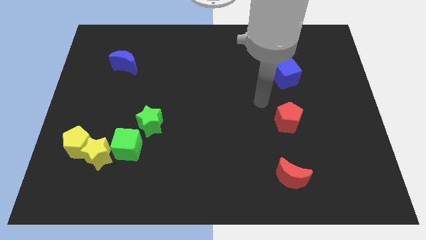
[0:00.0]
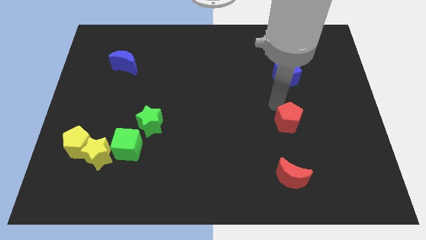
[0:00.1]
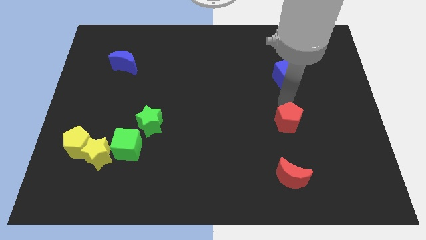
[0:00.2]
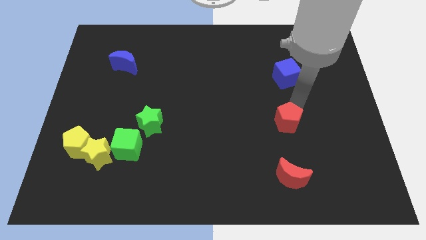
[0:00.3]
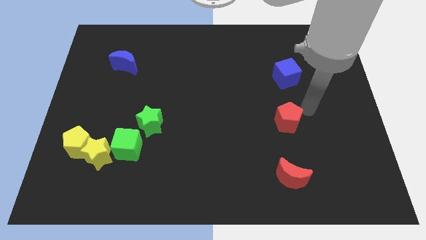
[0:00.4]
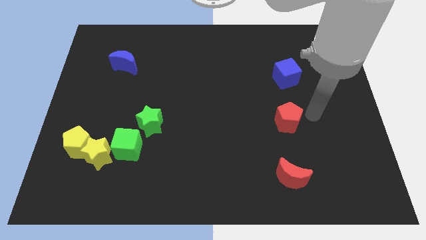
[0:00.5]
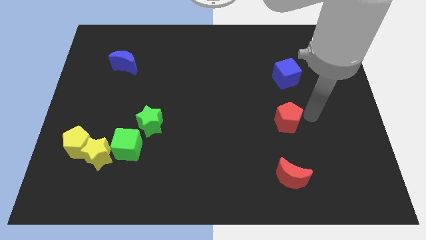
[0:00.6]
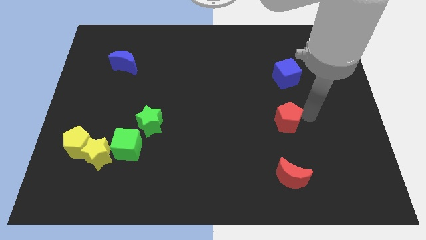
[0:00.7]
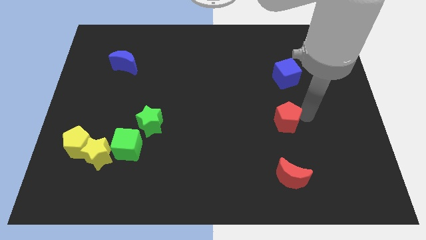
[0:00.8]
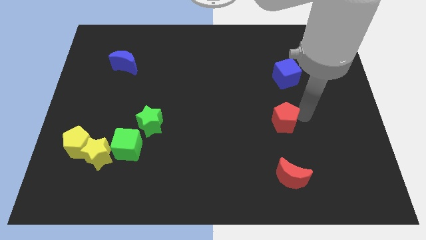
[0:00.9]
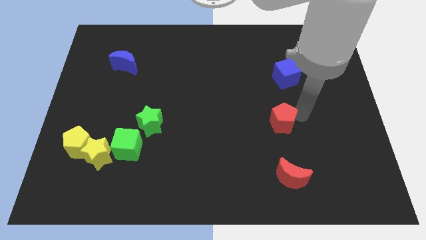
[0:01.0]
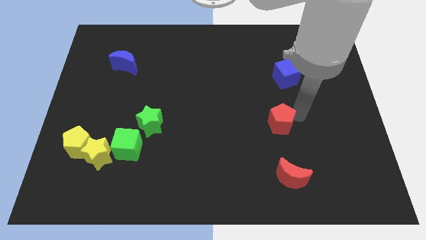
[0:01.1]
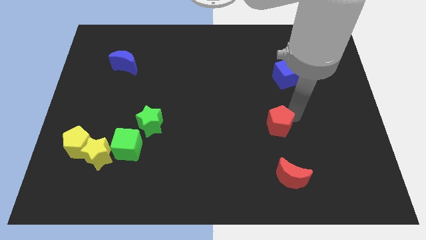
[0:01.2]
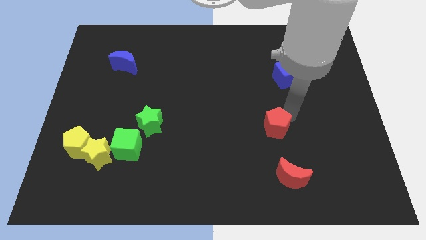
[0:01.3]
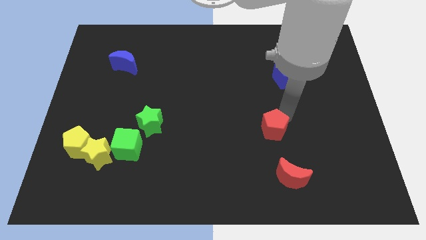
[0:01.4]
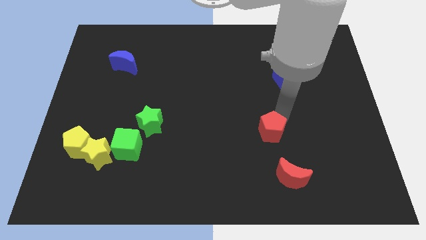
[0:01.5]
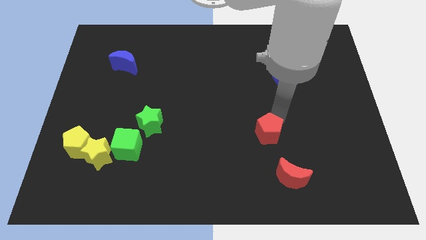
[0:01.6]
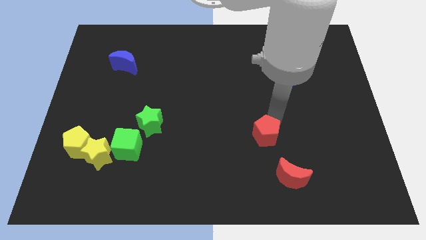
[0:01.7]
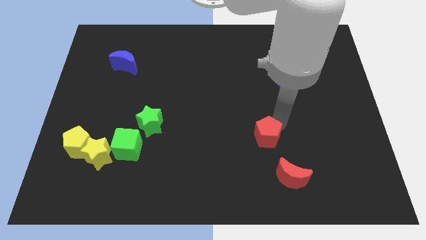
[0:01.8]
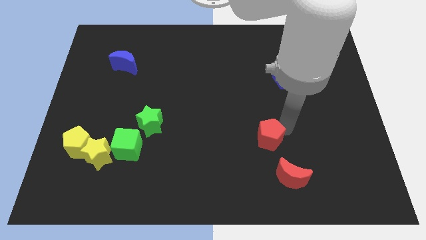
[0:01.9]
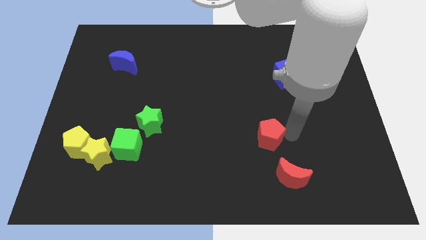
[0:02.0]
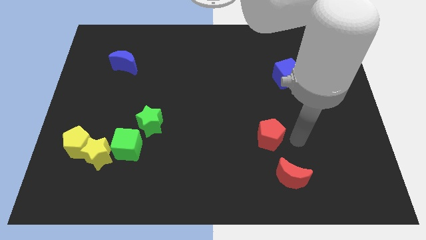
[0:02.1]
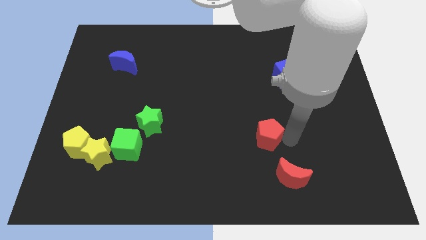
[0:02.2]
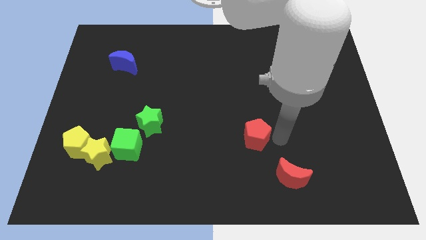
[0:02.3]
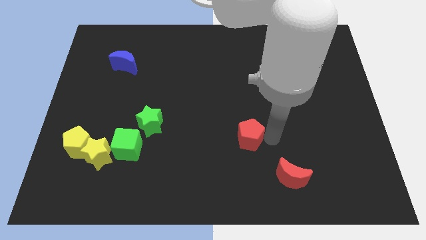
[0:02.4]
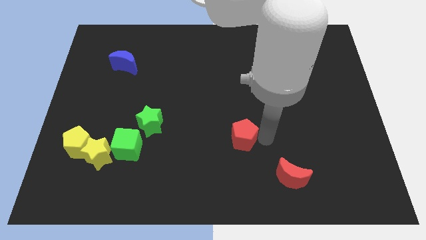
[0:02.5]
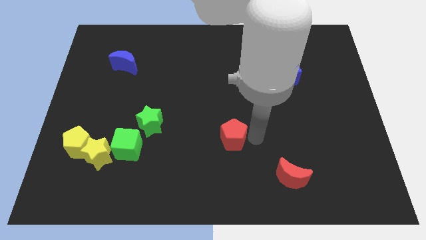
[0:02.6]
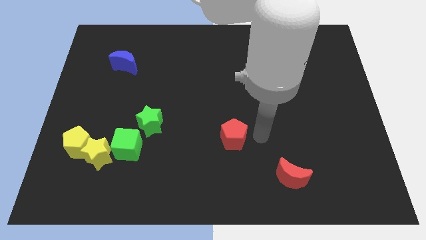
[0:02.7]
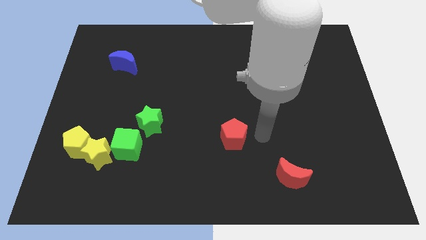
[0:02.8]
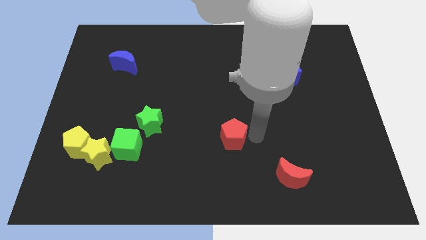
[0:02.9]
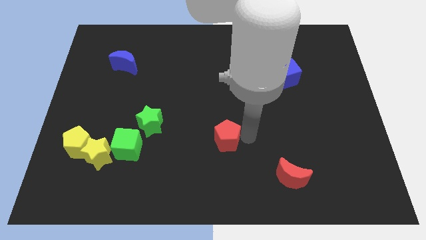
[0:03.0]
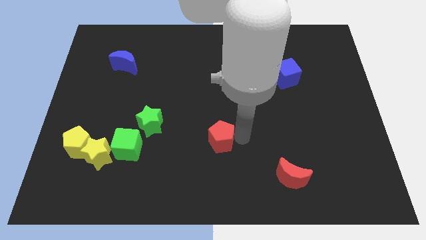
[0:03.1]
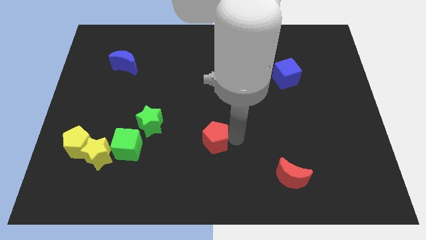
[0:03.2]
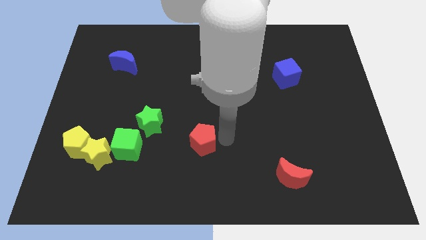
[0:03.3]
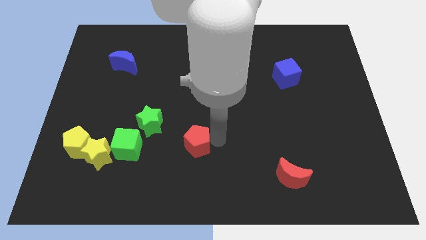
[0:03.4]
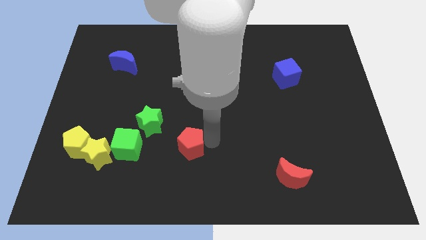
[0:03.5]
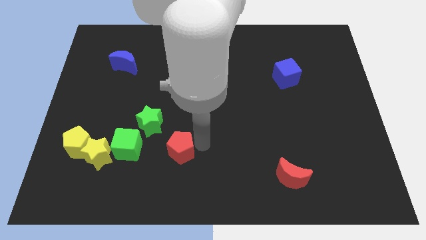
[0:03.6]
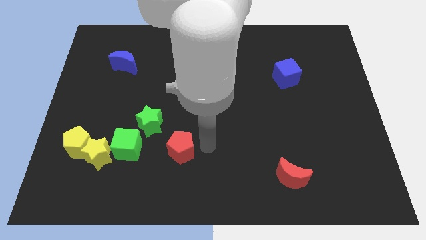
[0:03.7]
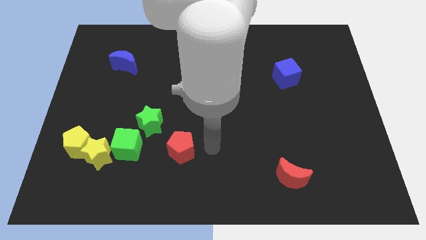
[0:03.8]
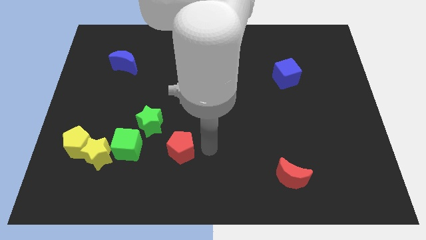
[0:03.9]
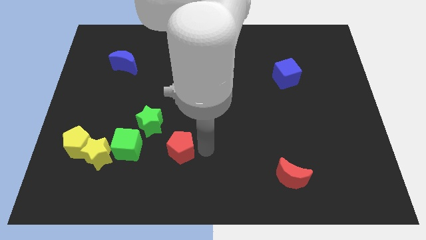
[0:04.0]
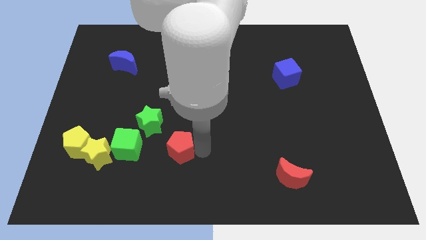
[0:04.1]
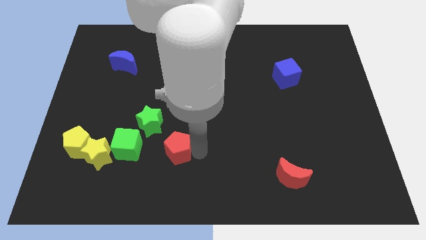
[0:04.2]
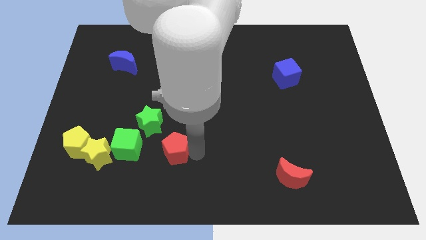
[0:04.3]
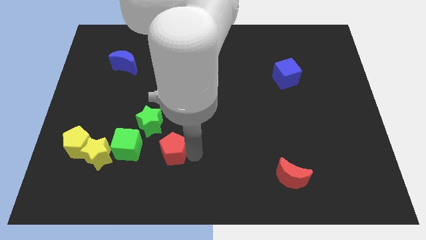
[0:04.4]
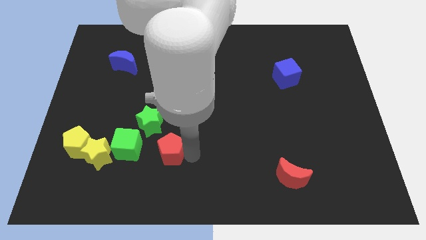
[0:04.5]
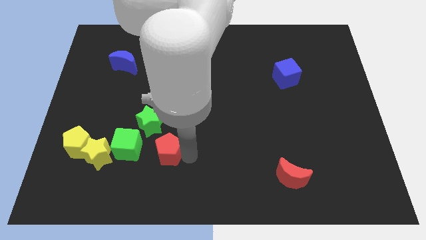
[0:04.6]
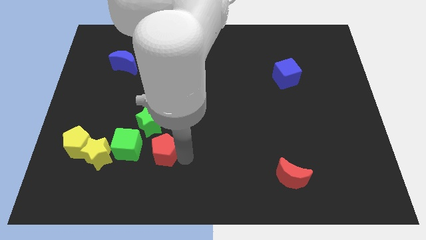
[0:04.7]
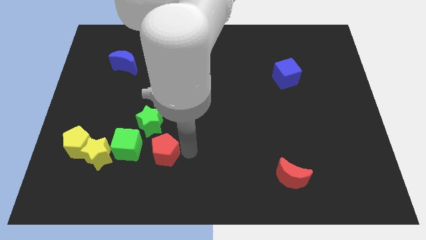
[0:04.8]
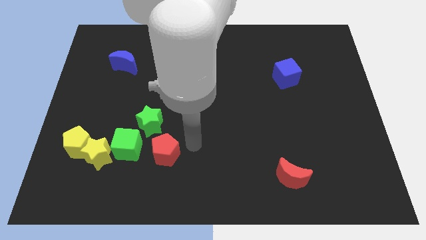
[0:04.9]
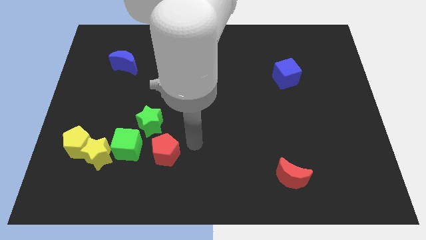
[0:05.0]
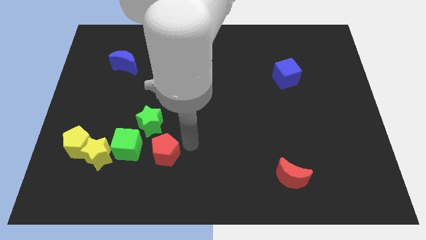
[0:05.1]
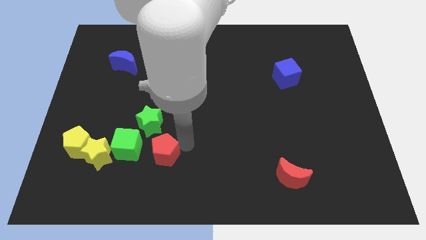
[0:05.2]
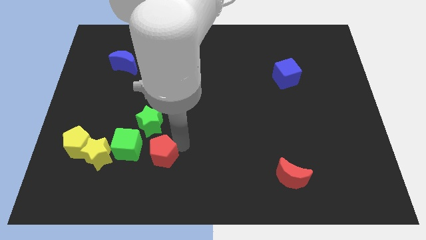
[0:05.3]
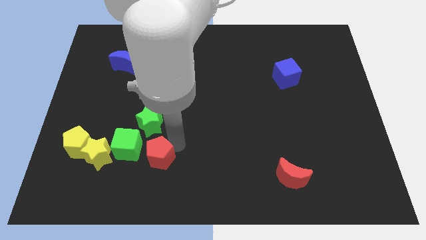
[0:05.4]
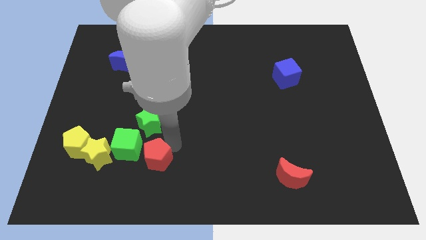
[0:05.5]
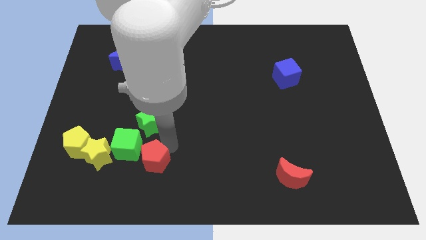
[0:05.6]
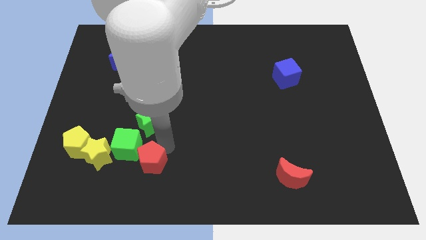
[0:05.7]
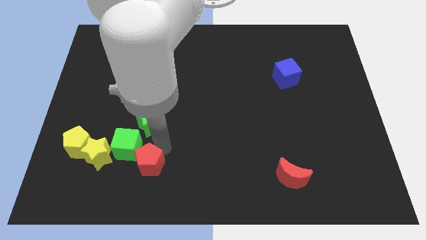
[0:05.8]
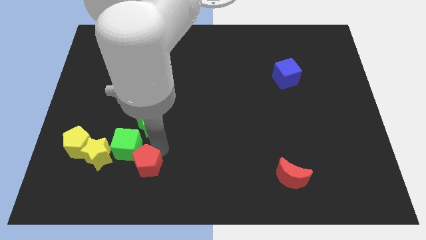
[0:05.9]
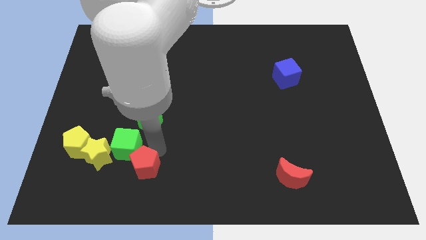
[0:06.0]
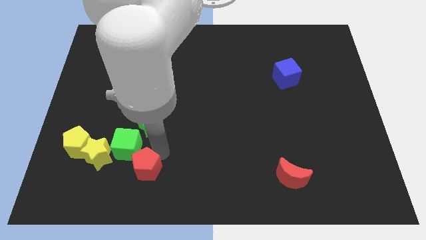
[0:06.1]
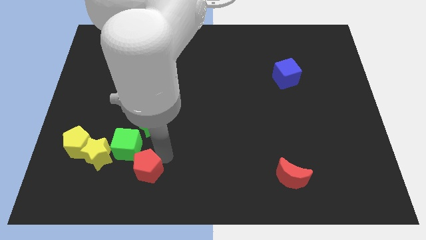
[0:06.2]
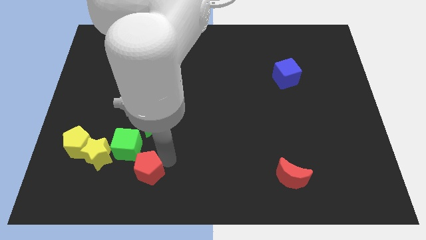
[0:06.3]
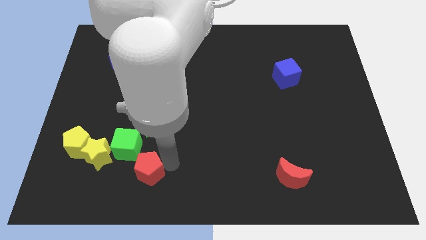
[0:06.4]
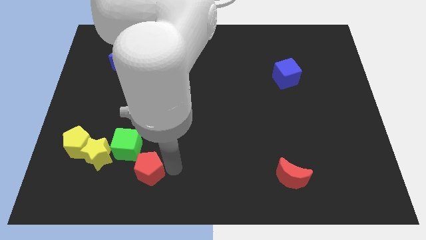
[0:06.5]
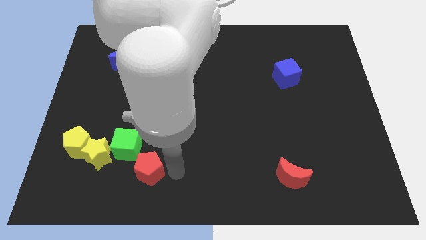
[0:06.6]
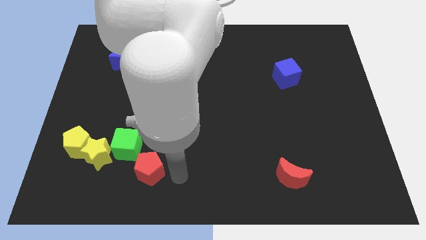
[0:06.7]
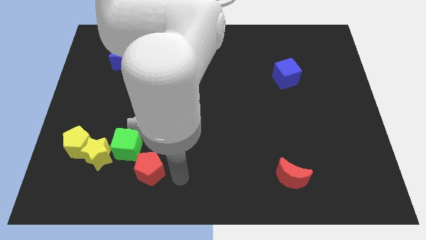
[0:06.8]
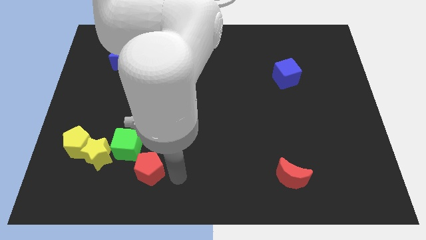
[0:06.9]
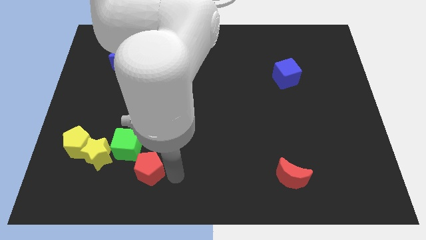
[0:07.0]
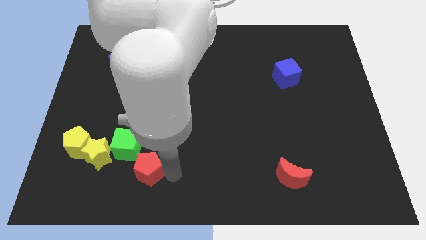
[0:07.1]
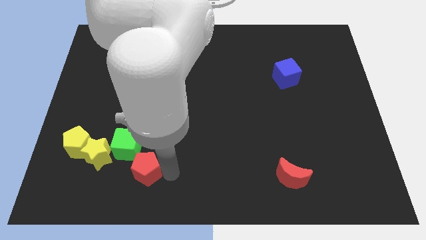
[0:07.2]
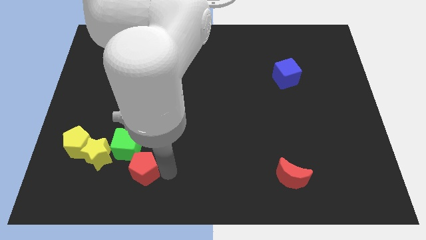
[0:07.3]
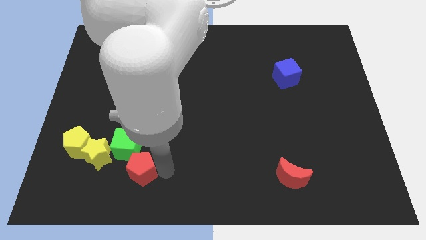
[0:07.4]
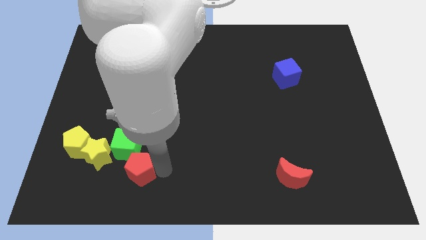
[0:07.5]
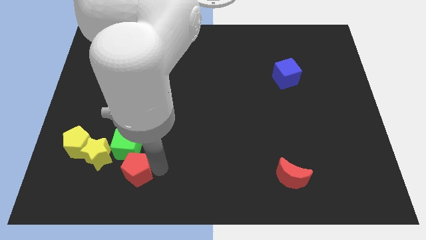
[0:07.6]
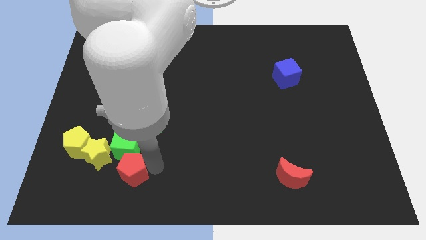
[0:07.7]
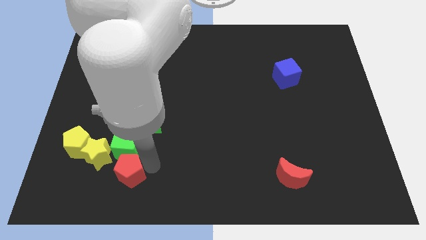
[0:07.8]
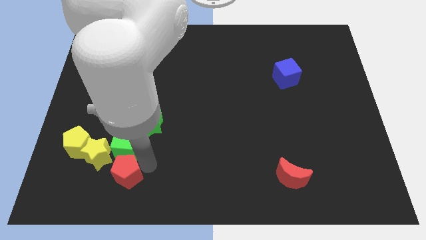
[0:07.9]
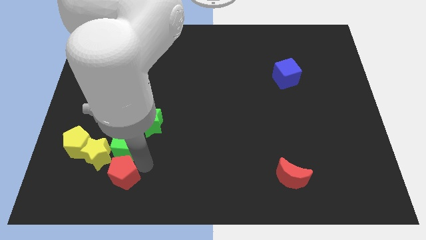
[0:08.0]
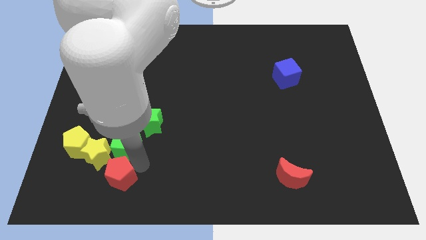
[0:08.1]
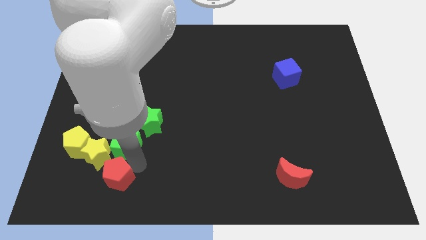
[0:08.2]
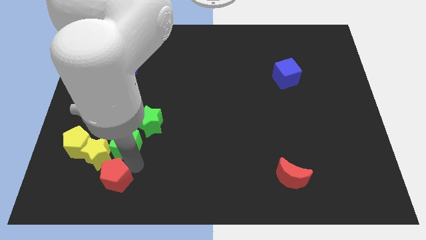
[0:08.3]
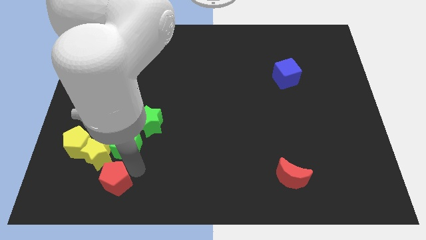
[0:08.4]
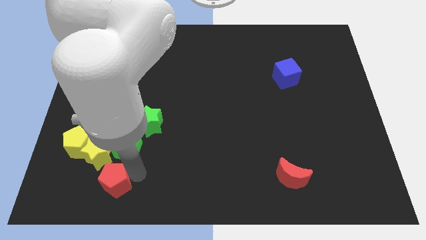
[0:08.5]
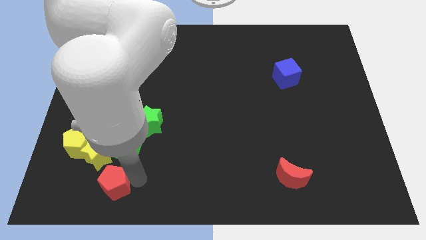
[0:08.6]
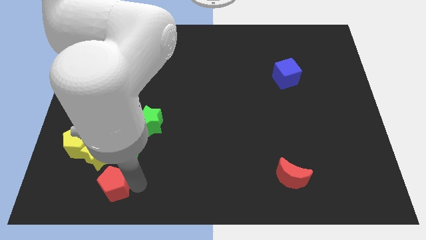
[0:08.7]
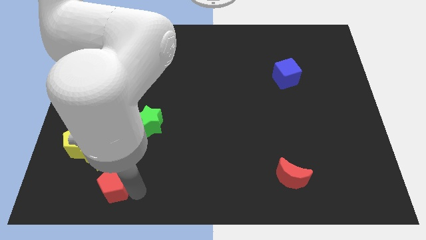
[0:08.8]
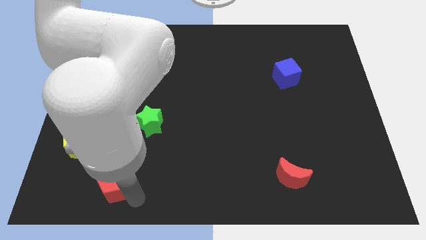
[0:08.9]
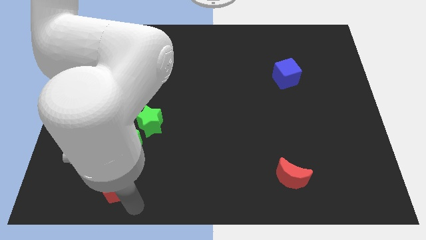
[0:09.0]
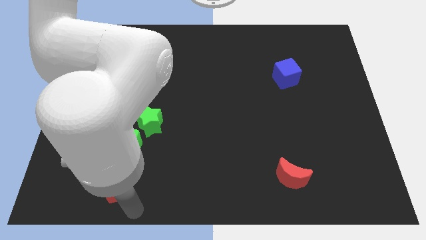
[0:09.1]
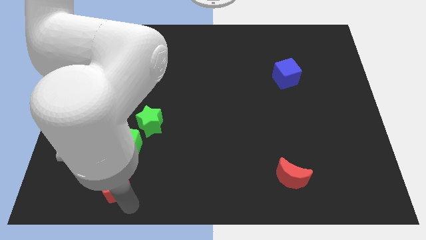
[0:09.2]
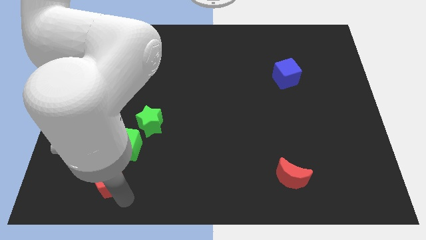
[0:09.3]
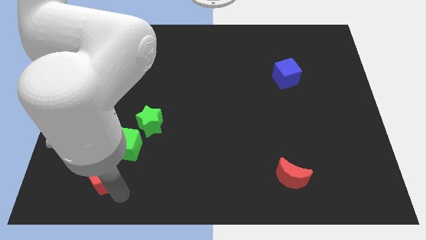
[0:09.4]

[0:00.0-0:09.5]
put the red pentagon to the yellow star
